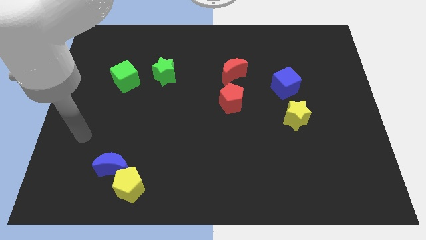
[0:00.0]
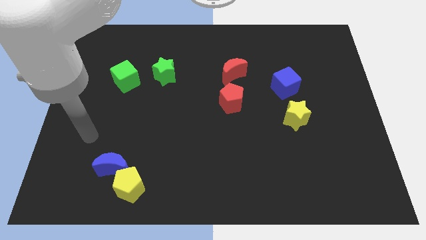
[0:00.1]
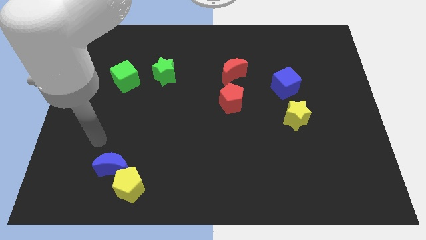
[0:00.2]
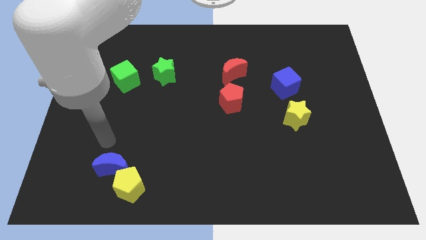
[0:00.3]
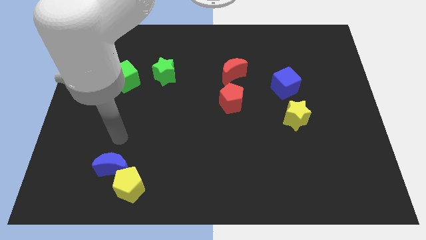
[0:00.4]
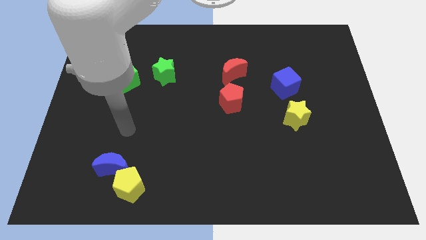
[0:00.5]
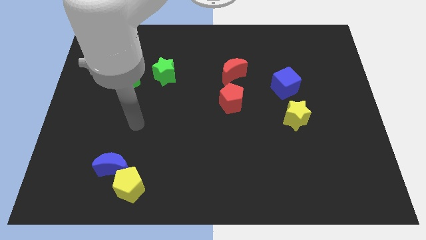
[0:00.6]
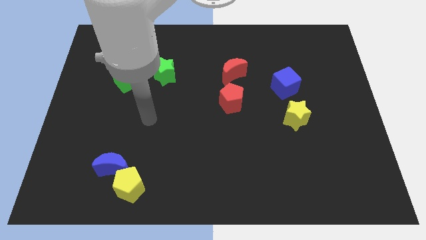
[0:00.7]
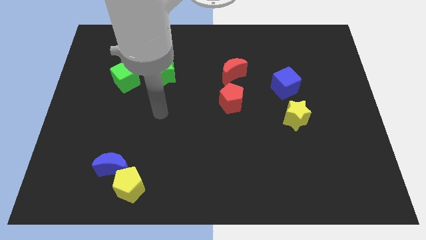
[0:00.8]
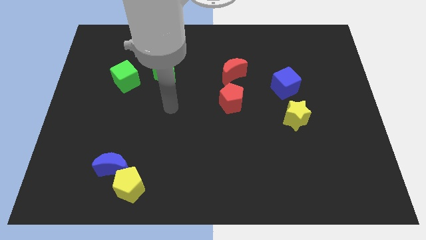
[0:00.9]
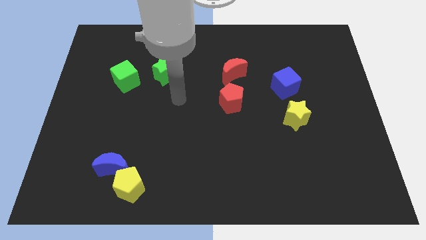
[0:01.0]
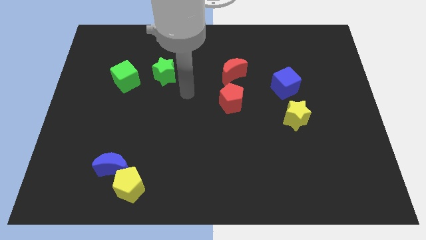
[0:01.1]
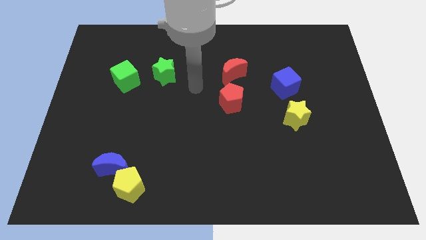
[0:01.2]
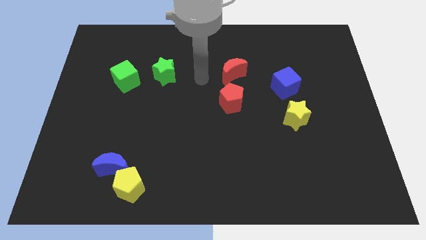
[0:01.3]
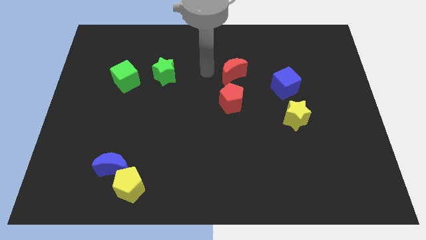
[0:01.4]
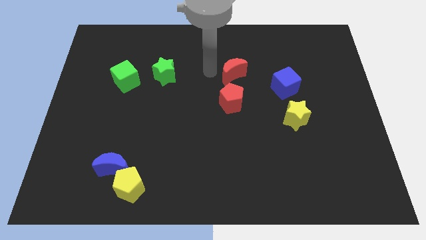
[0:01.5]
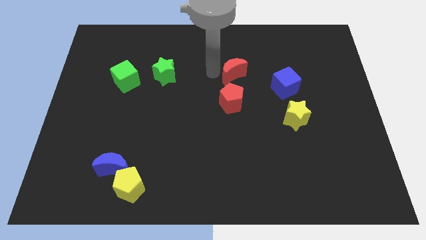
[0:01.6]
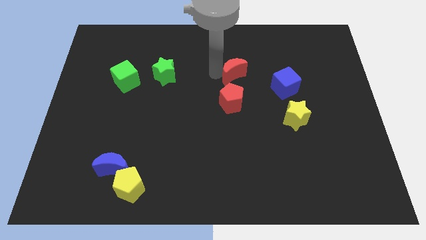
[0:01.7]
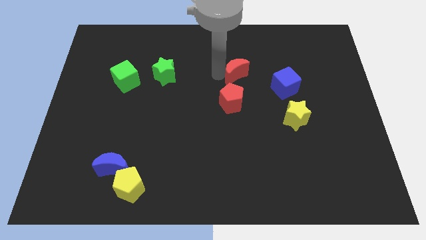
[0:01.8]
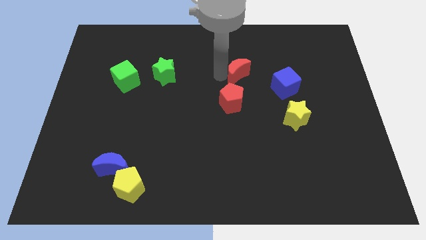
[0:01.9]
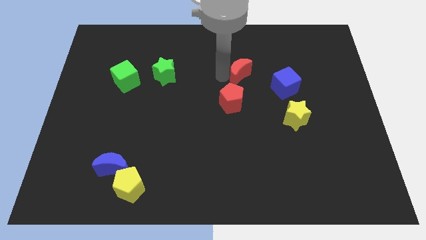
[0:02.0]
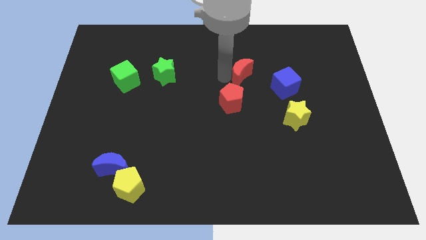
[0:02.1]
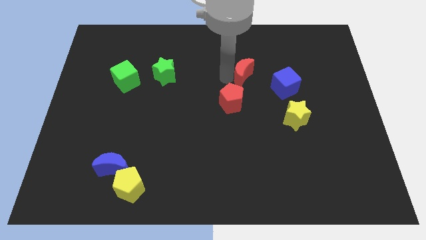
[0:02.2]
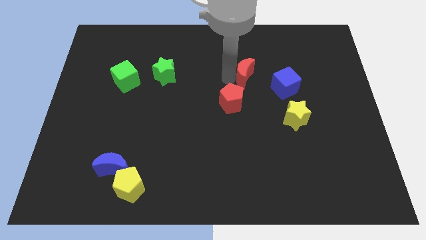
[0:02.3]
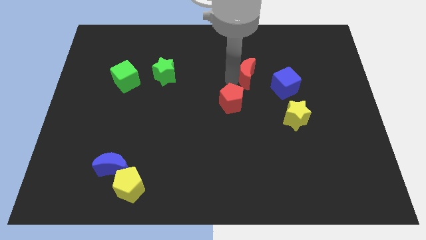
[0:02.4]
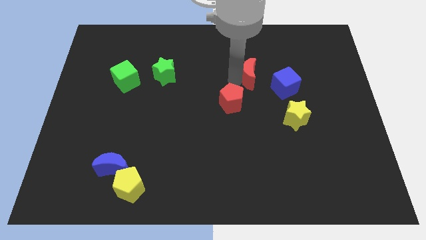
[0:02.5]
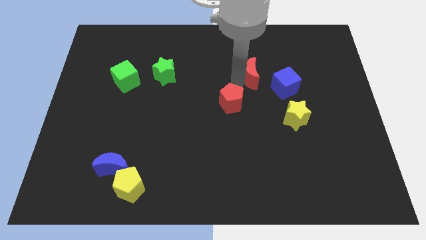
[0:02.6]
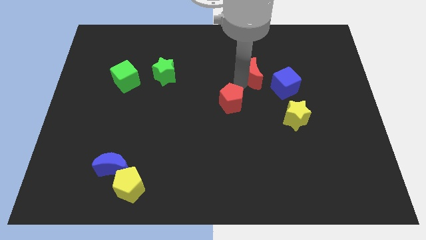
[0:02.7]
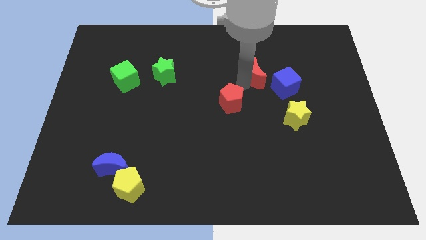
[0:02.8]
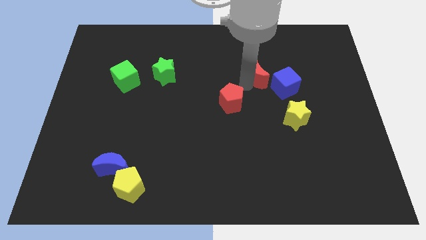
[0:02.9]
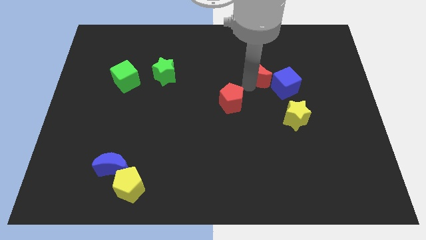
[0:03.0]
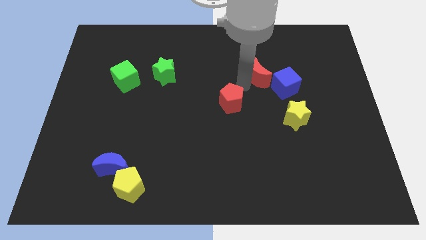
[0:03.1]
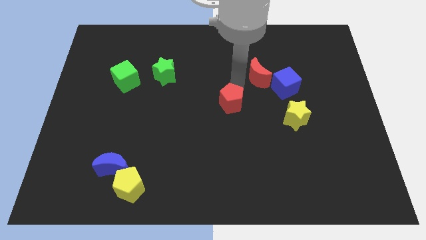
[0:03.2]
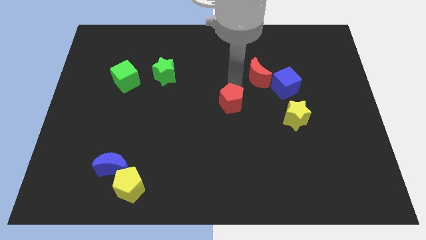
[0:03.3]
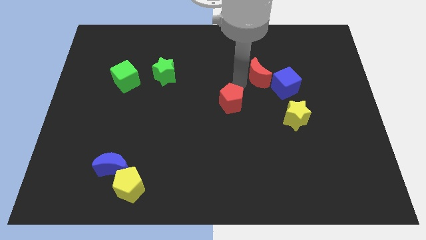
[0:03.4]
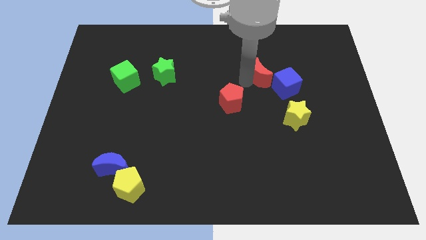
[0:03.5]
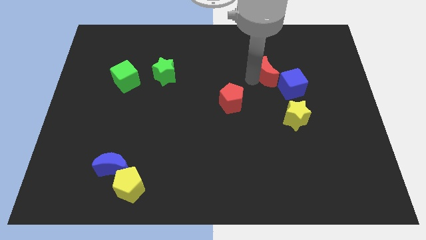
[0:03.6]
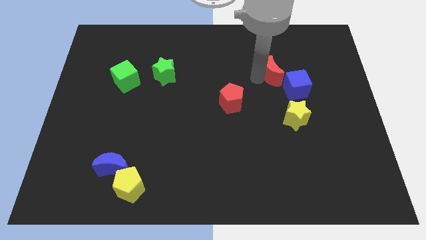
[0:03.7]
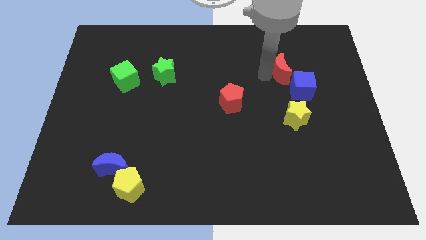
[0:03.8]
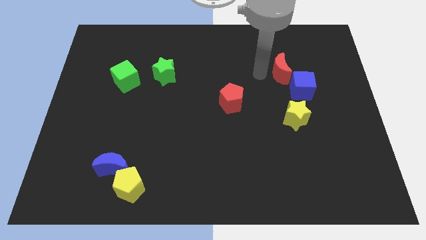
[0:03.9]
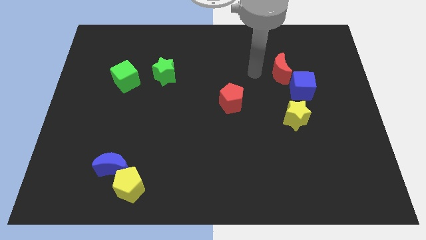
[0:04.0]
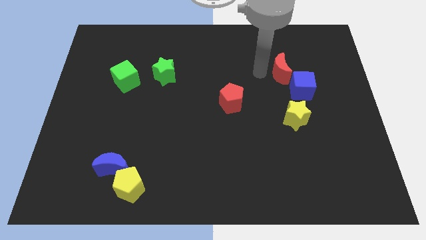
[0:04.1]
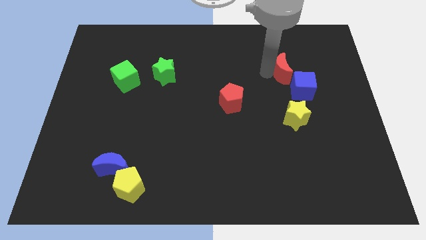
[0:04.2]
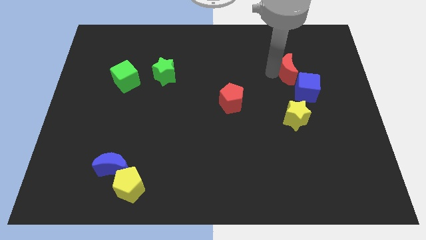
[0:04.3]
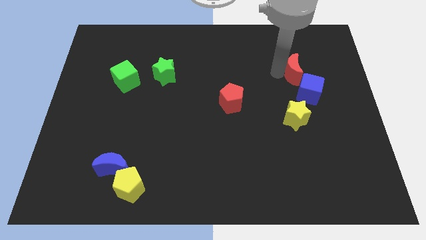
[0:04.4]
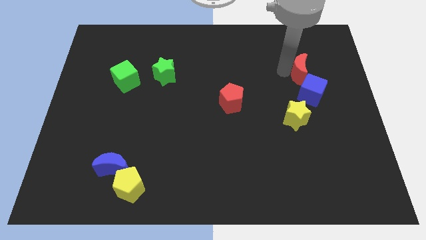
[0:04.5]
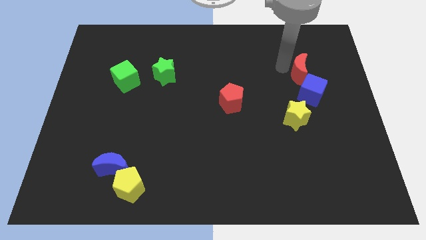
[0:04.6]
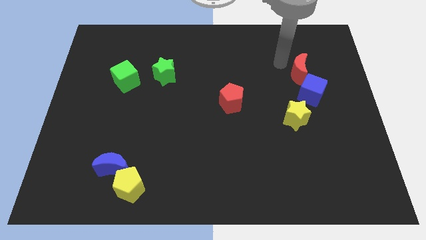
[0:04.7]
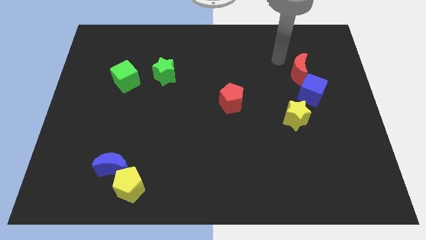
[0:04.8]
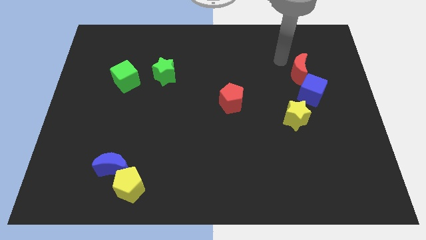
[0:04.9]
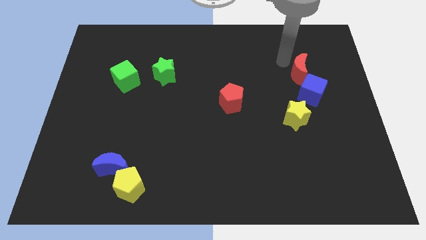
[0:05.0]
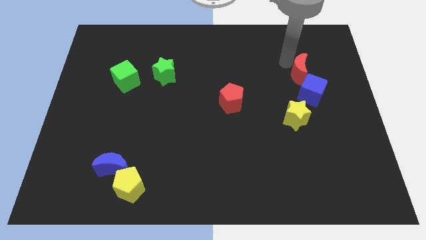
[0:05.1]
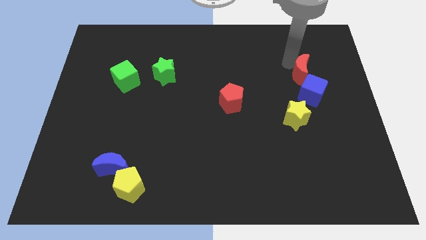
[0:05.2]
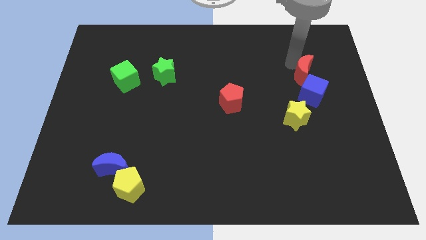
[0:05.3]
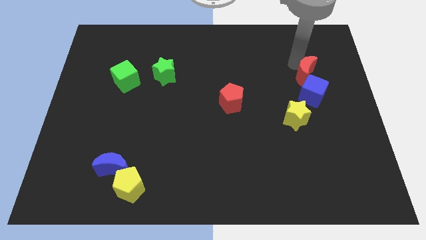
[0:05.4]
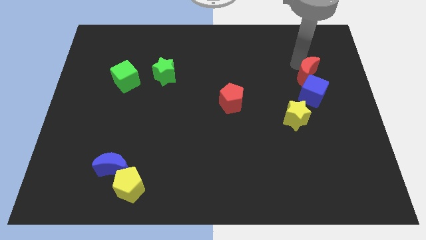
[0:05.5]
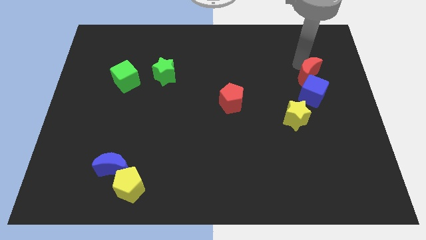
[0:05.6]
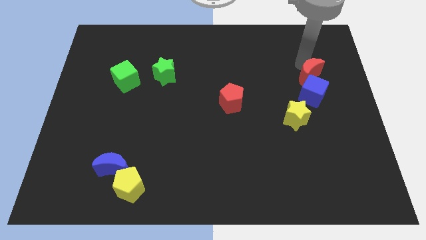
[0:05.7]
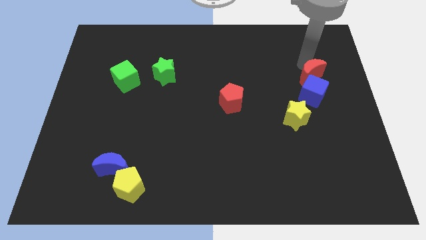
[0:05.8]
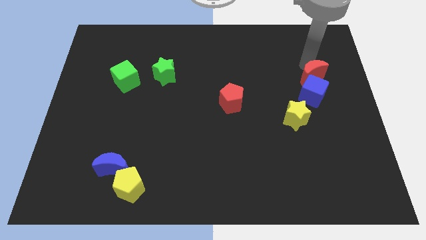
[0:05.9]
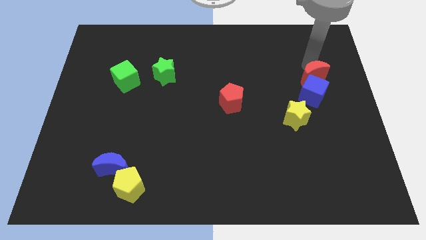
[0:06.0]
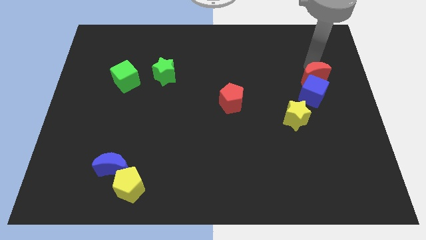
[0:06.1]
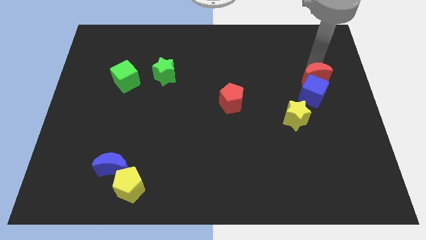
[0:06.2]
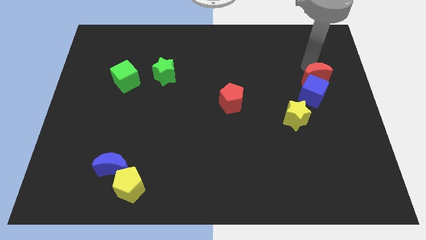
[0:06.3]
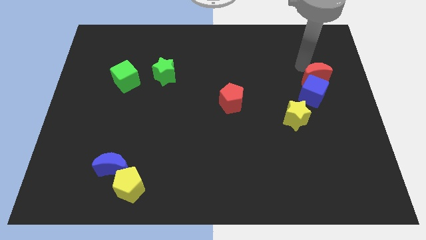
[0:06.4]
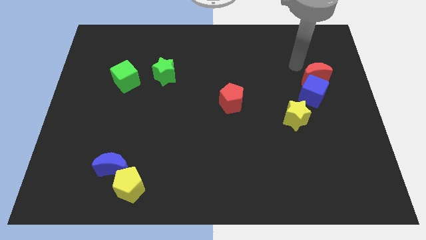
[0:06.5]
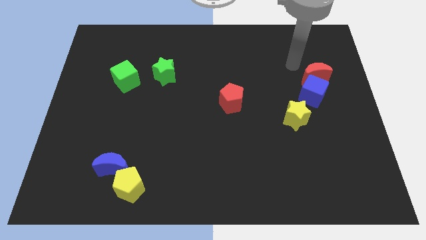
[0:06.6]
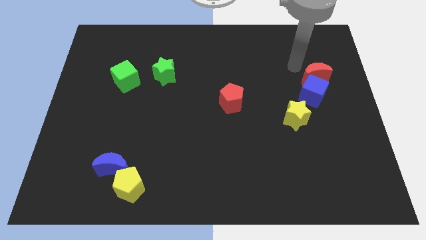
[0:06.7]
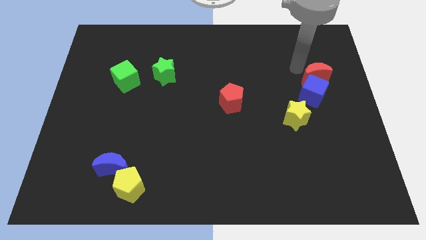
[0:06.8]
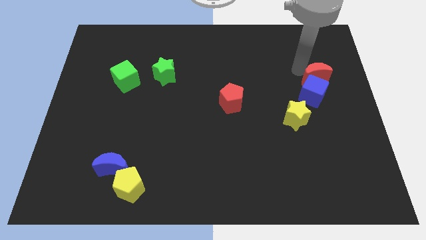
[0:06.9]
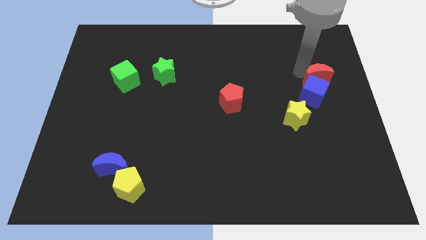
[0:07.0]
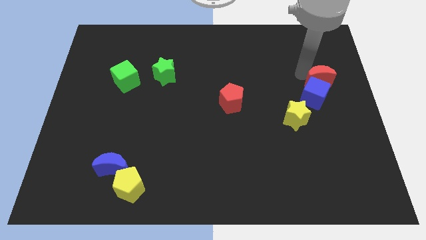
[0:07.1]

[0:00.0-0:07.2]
move the red moon to the right side of the board
